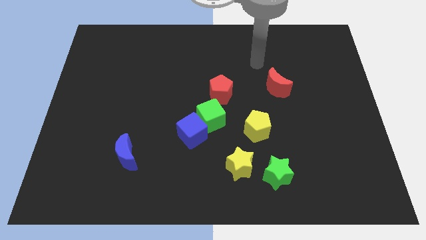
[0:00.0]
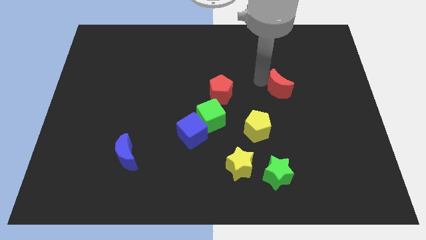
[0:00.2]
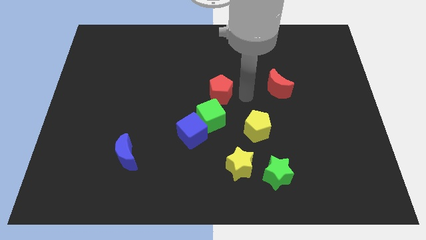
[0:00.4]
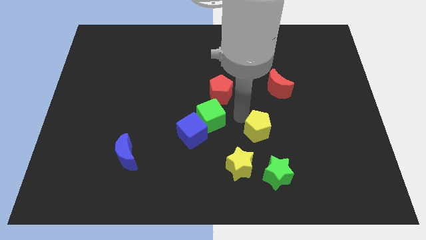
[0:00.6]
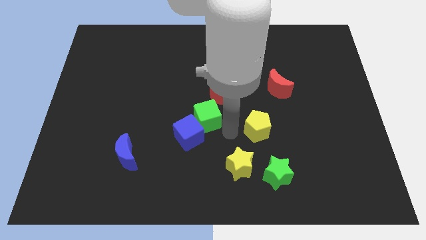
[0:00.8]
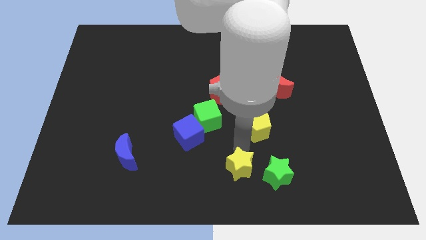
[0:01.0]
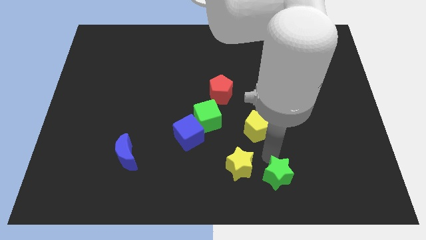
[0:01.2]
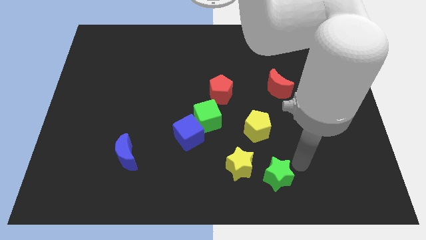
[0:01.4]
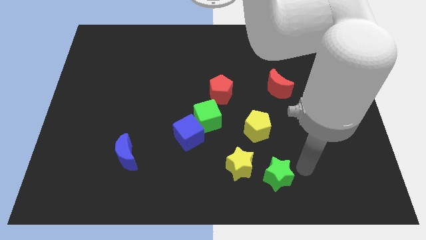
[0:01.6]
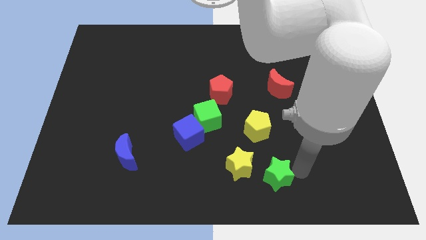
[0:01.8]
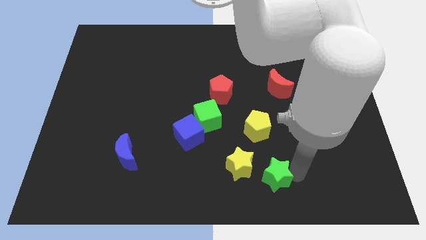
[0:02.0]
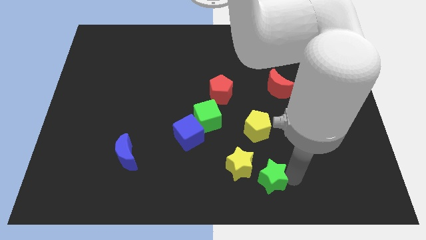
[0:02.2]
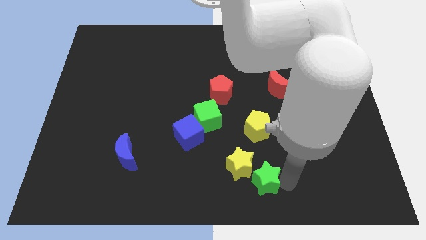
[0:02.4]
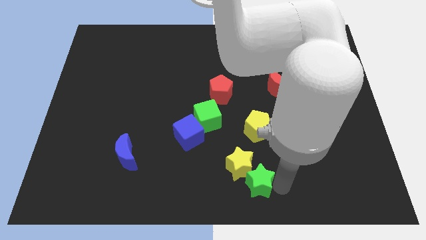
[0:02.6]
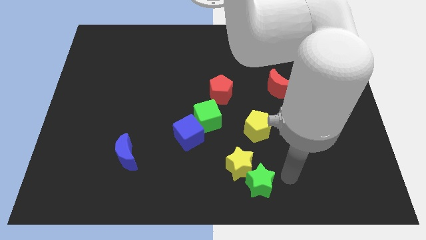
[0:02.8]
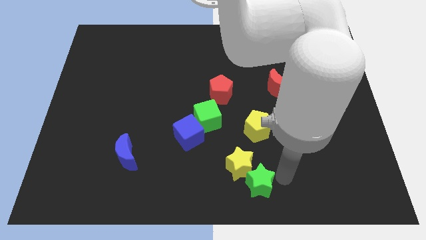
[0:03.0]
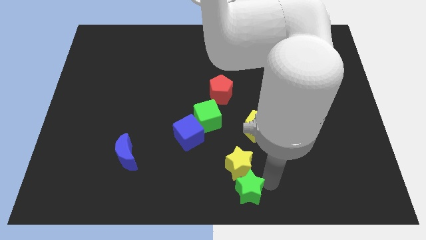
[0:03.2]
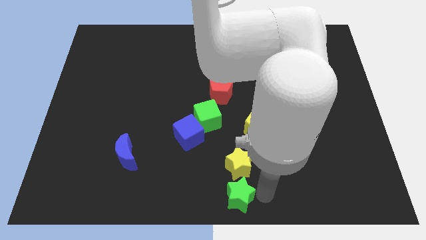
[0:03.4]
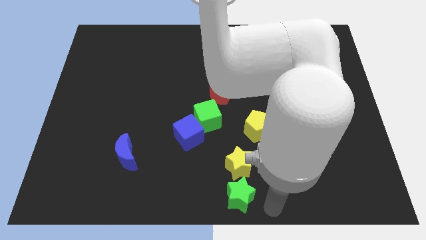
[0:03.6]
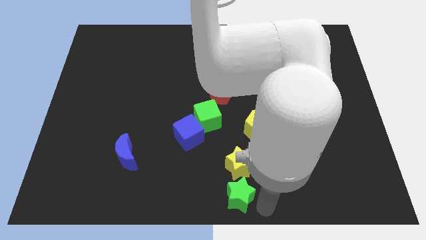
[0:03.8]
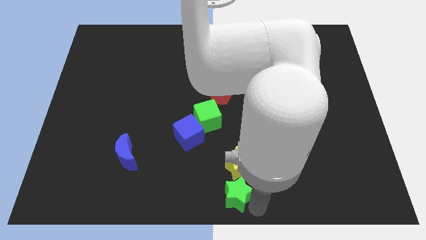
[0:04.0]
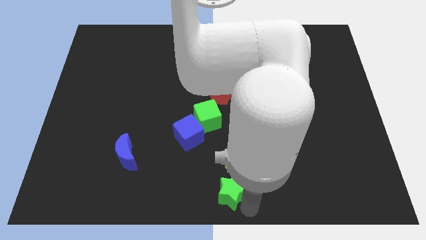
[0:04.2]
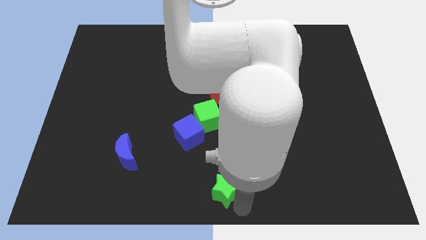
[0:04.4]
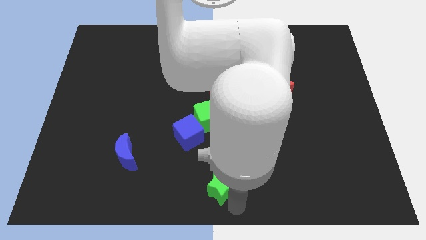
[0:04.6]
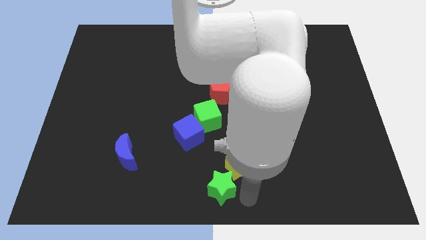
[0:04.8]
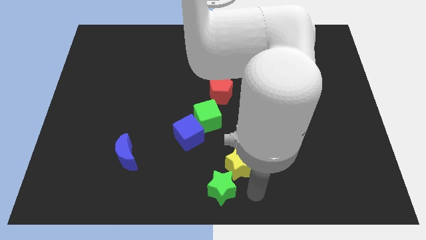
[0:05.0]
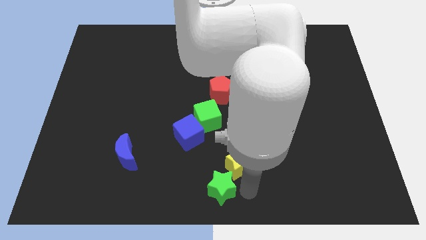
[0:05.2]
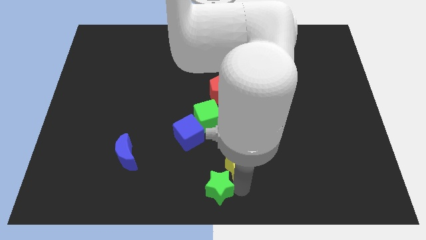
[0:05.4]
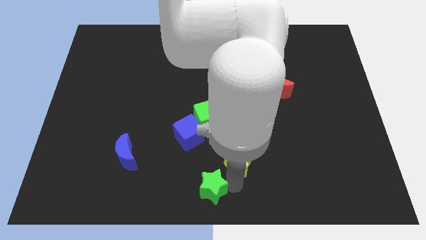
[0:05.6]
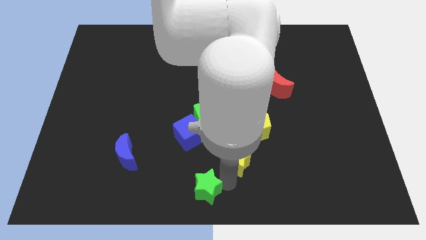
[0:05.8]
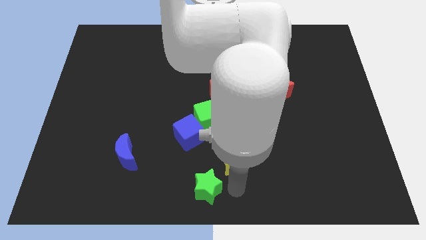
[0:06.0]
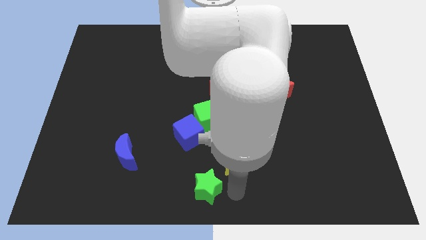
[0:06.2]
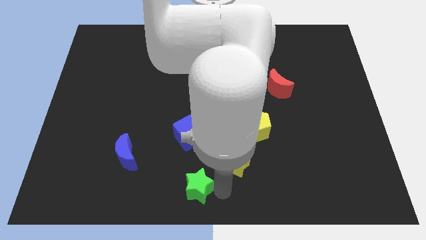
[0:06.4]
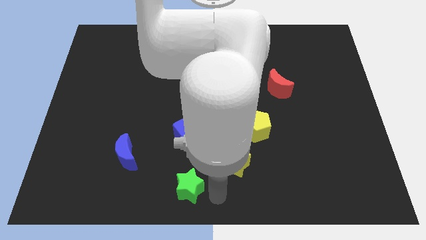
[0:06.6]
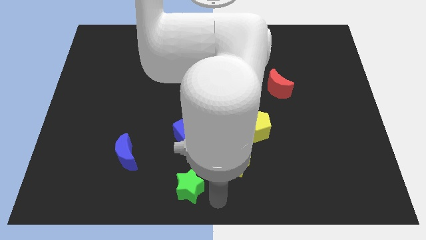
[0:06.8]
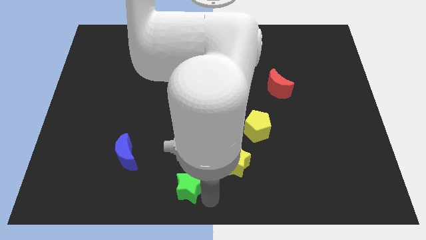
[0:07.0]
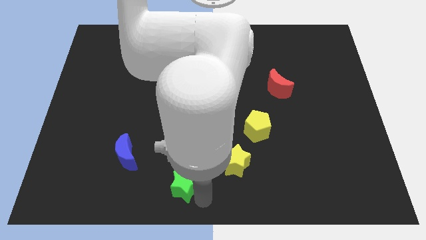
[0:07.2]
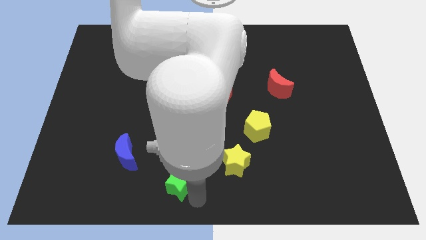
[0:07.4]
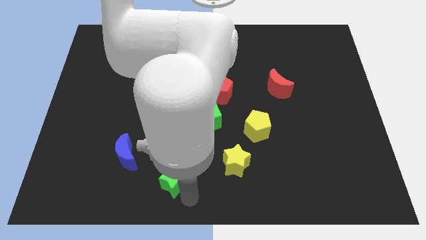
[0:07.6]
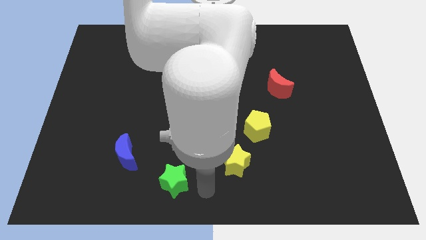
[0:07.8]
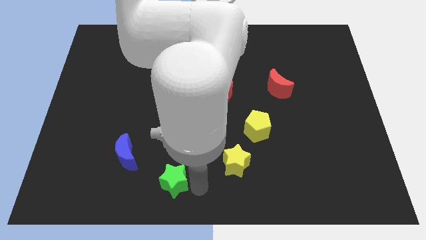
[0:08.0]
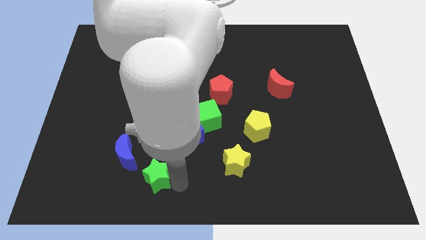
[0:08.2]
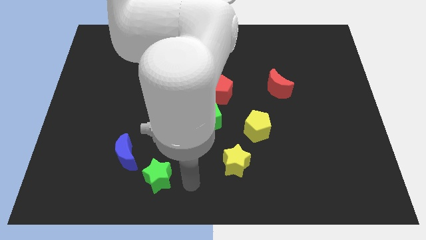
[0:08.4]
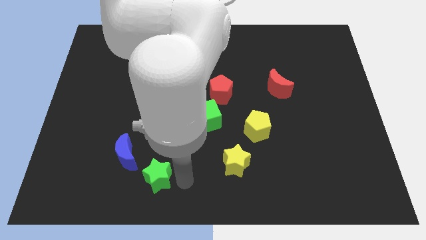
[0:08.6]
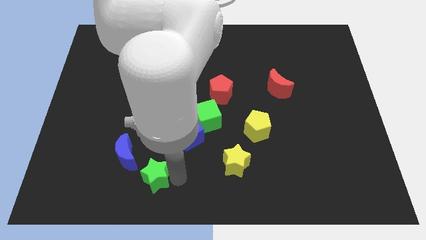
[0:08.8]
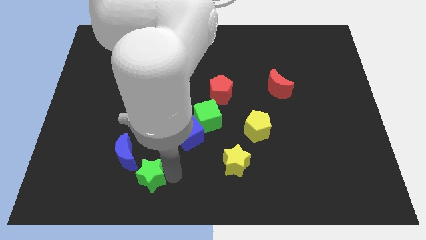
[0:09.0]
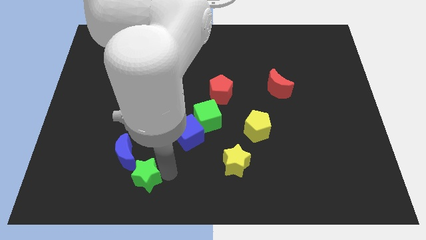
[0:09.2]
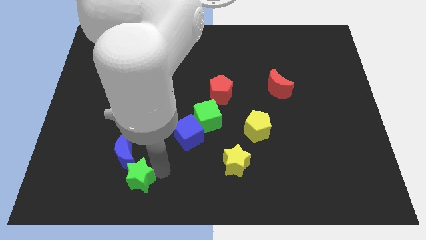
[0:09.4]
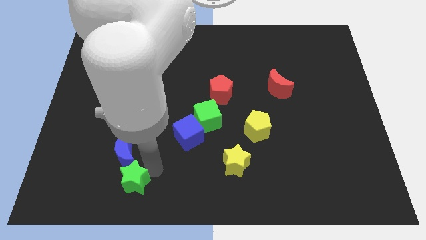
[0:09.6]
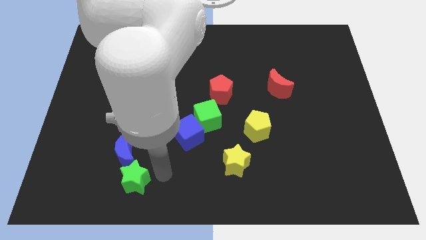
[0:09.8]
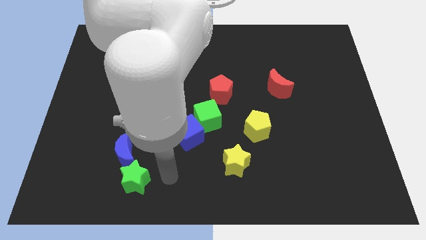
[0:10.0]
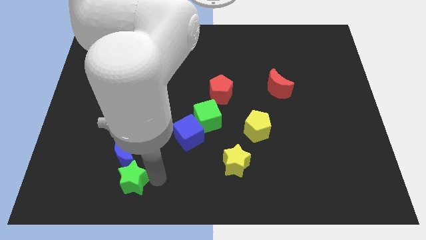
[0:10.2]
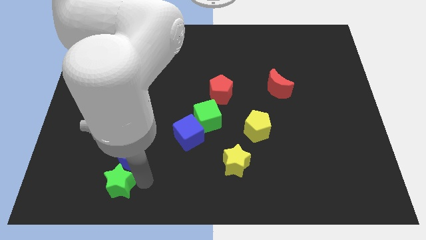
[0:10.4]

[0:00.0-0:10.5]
put the green star diagonally down and to the left of the blue moon
